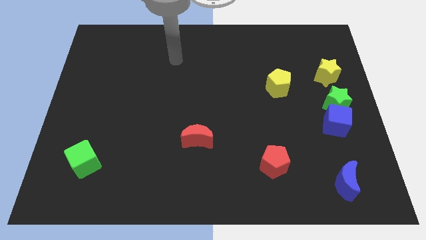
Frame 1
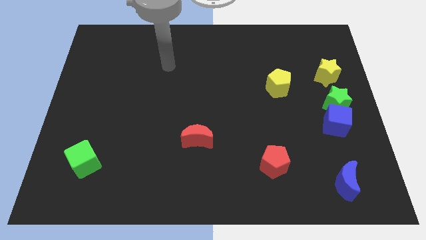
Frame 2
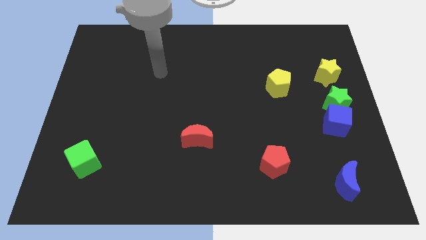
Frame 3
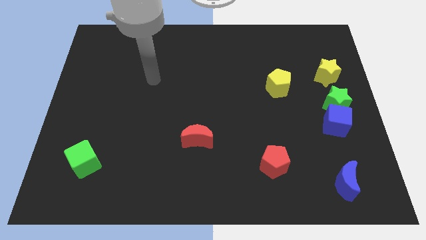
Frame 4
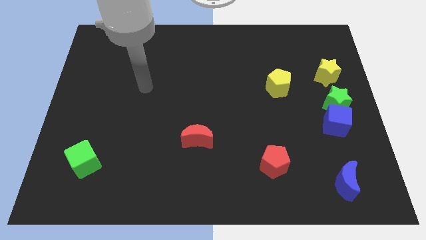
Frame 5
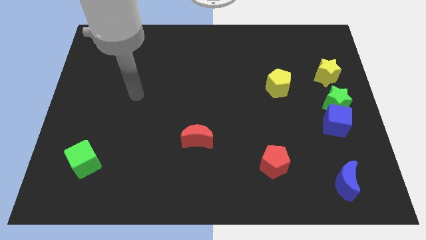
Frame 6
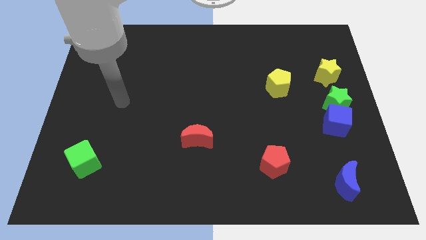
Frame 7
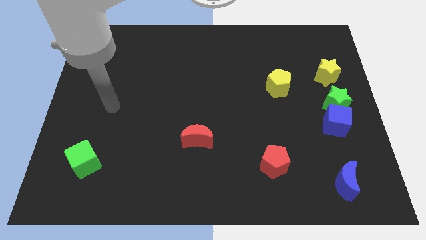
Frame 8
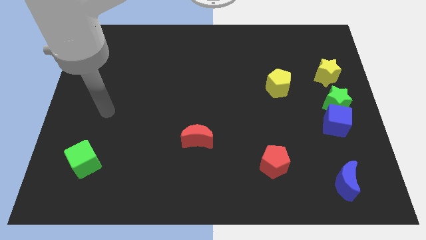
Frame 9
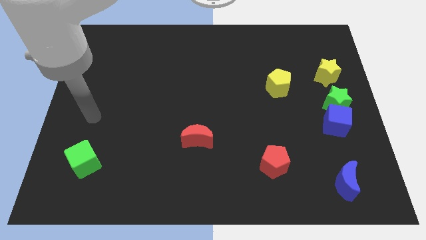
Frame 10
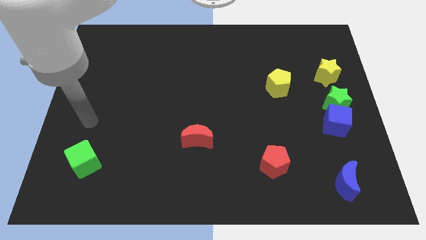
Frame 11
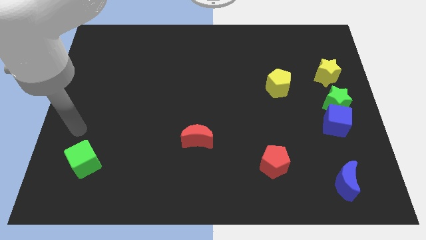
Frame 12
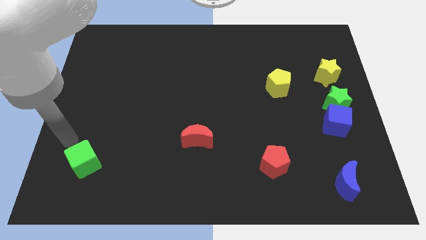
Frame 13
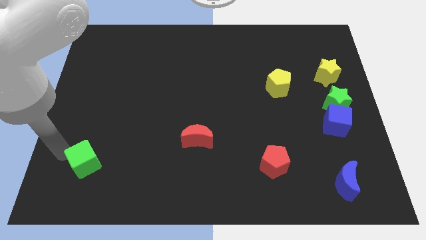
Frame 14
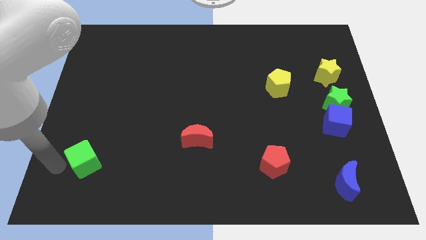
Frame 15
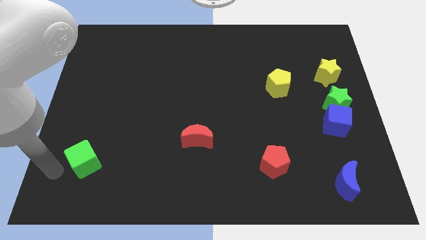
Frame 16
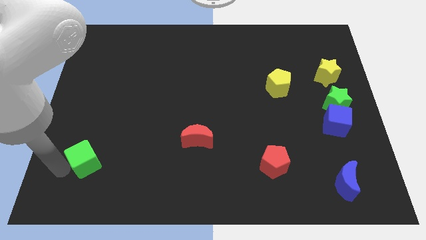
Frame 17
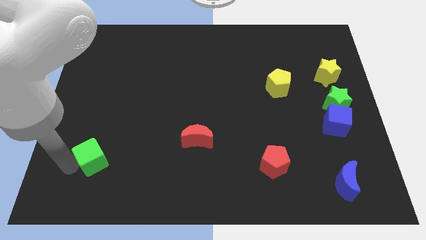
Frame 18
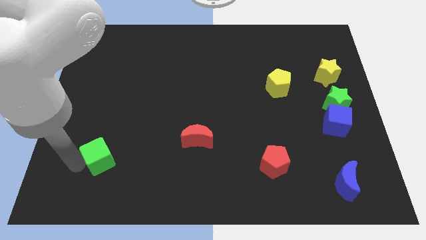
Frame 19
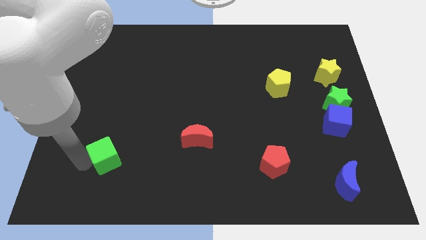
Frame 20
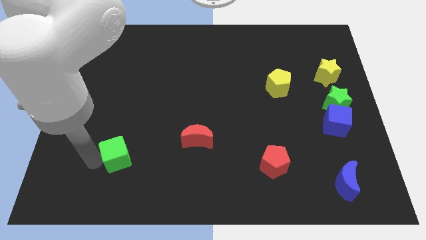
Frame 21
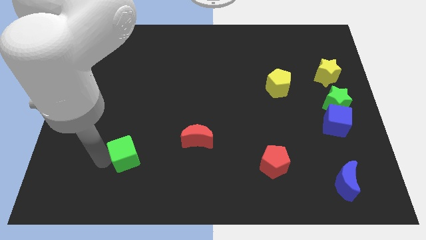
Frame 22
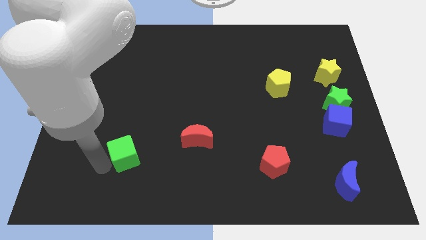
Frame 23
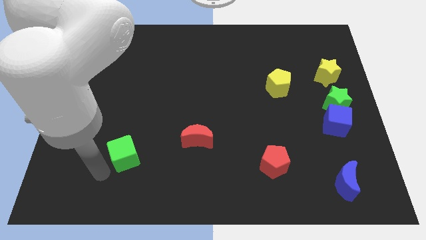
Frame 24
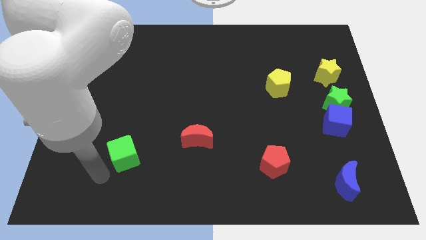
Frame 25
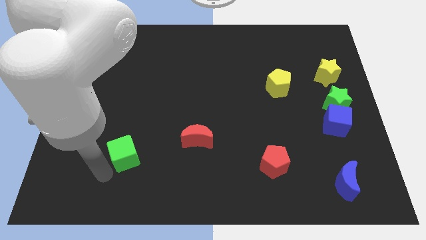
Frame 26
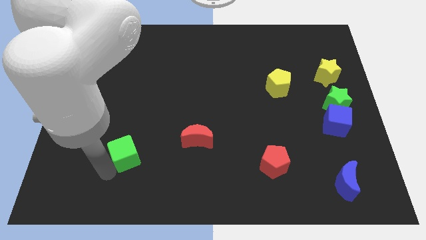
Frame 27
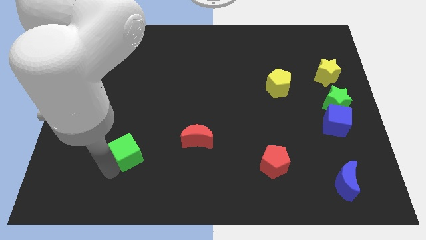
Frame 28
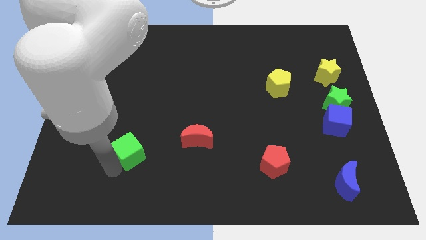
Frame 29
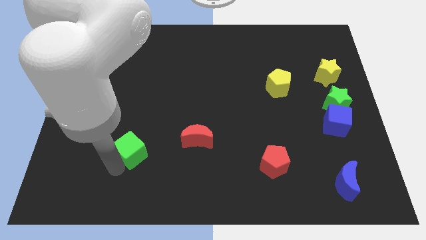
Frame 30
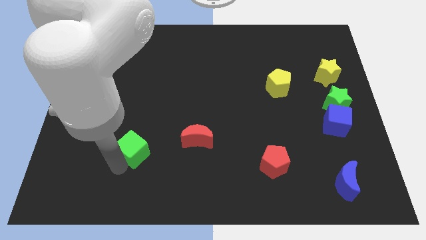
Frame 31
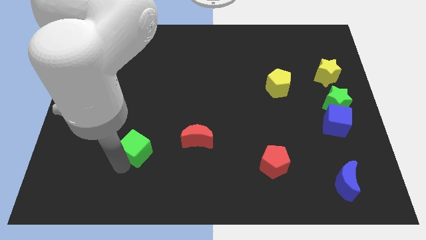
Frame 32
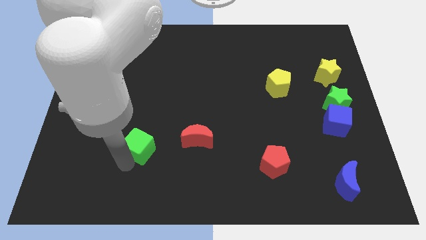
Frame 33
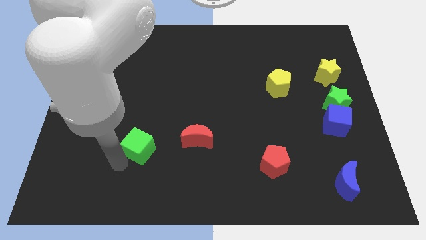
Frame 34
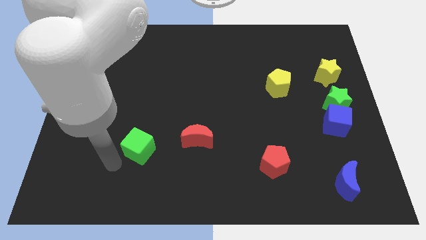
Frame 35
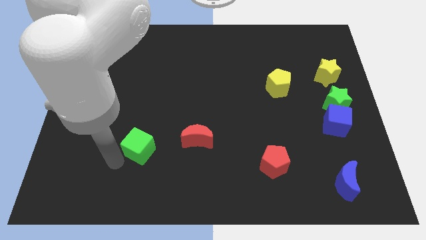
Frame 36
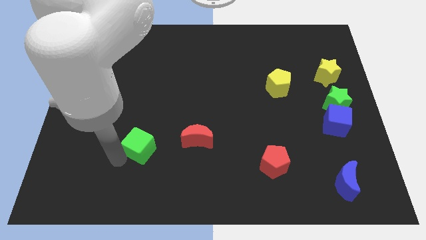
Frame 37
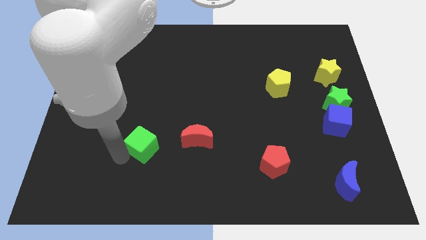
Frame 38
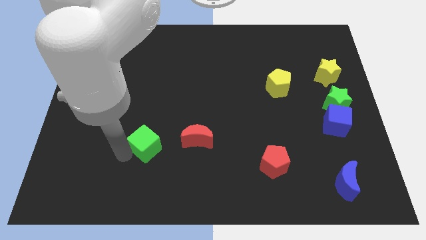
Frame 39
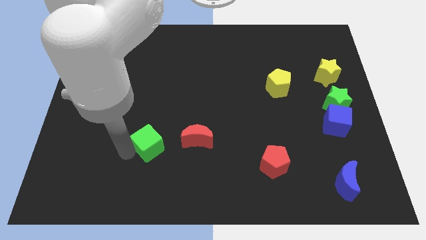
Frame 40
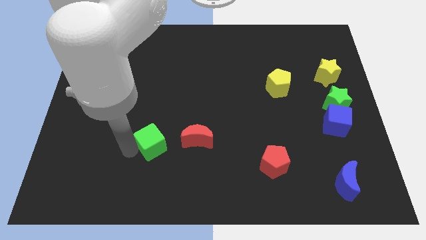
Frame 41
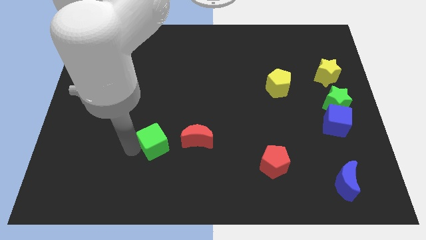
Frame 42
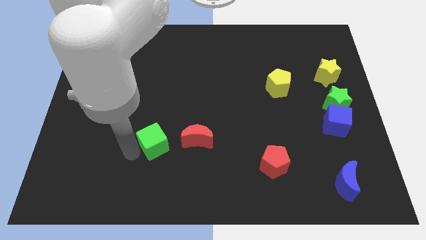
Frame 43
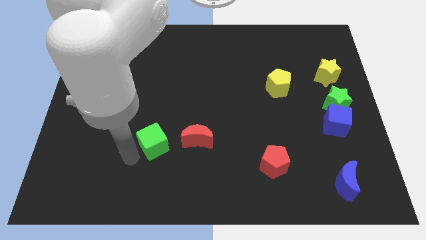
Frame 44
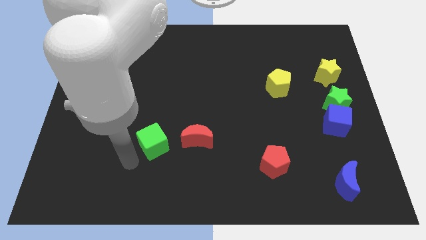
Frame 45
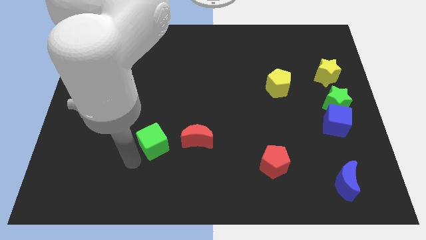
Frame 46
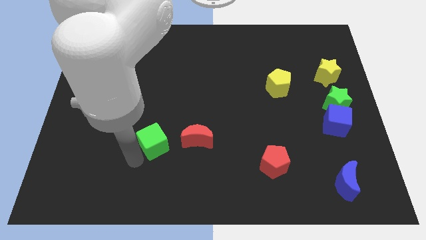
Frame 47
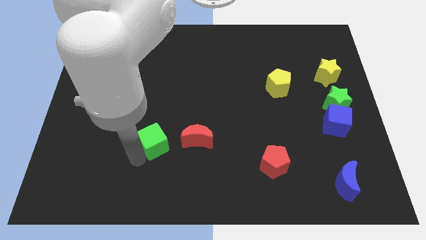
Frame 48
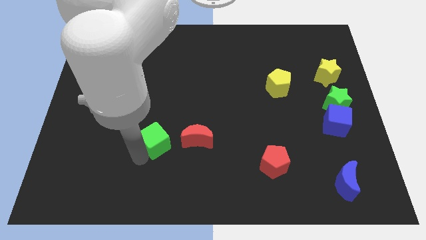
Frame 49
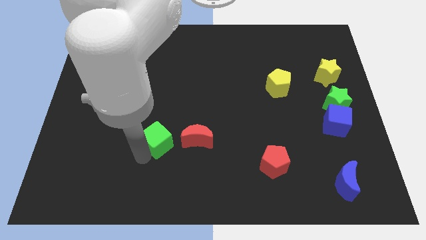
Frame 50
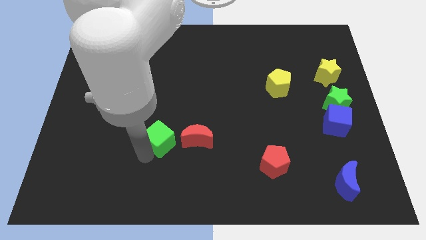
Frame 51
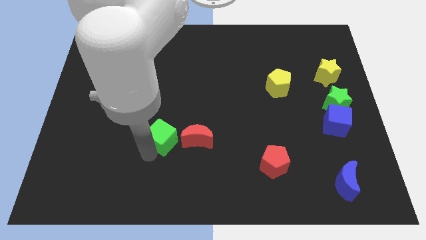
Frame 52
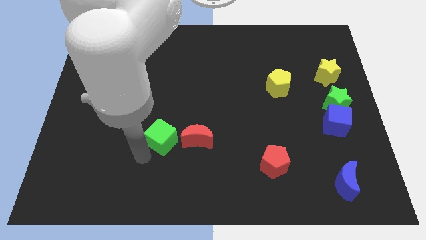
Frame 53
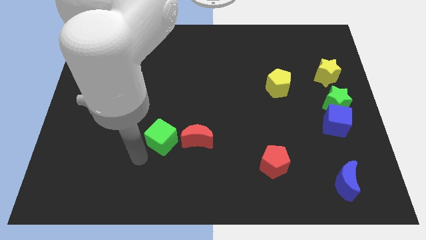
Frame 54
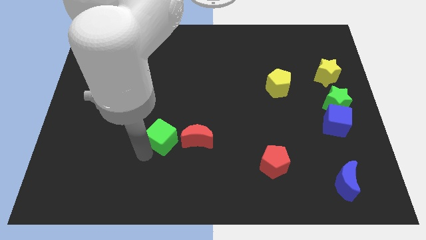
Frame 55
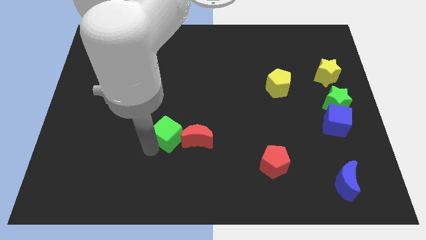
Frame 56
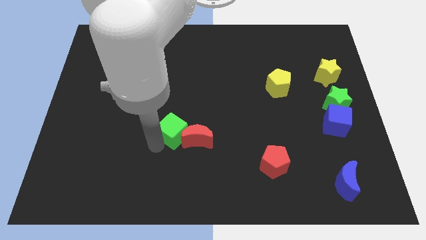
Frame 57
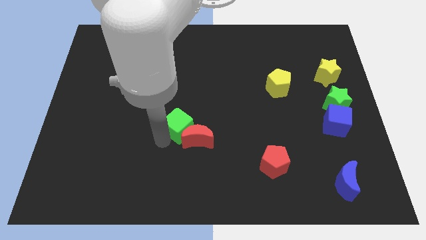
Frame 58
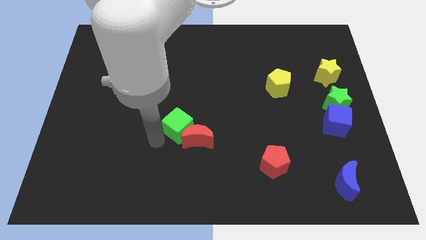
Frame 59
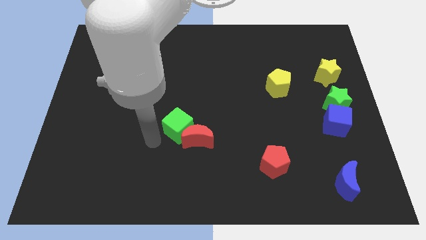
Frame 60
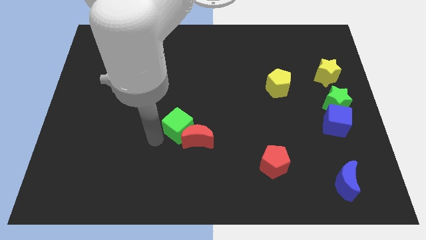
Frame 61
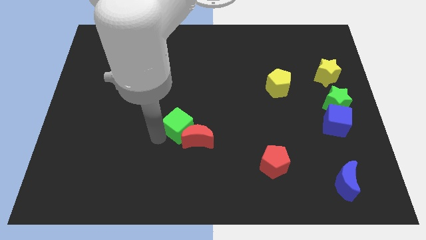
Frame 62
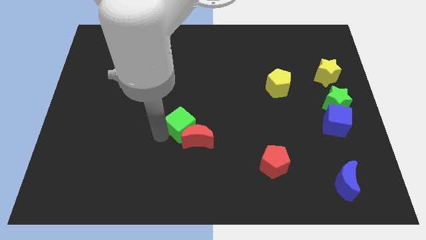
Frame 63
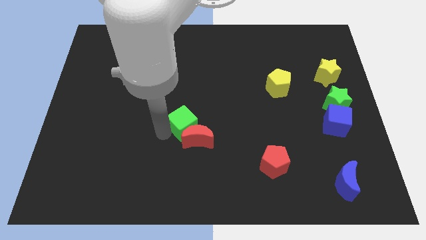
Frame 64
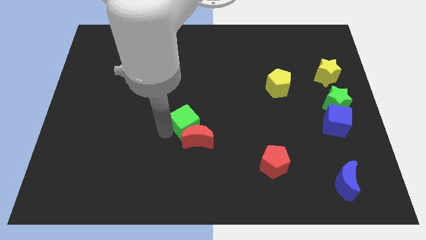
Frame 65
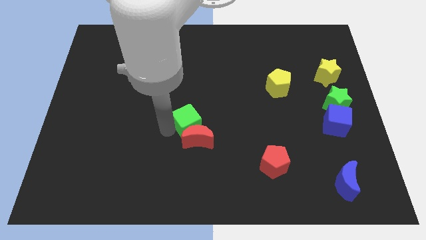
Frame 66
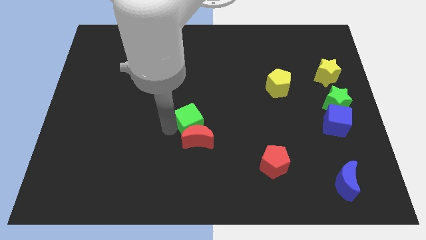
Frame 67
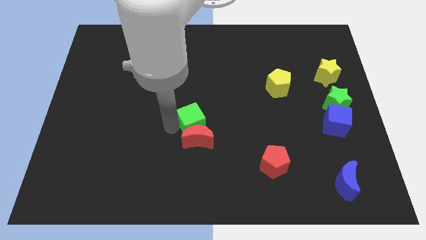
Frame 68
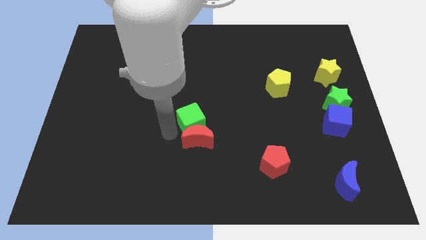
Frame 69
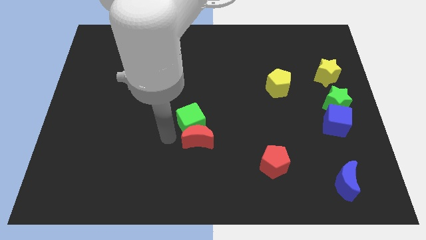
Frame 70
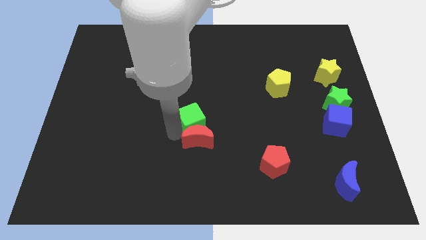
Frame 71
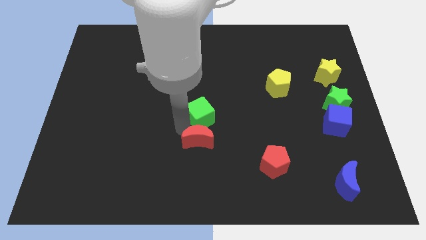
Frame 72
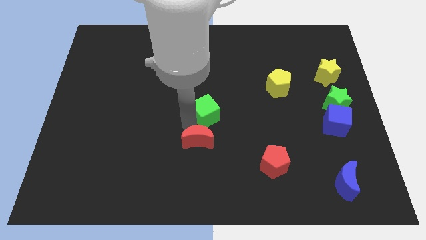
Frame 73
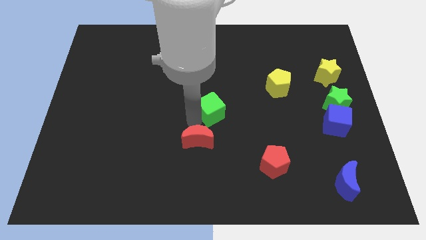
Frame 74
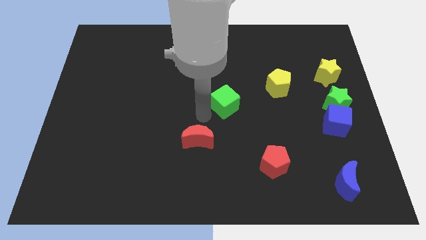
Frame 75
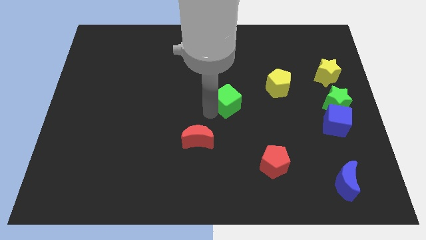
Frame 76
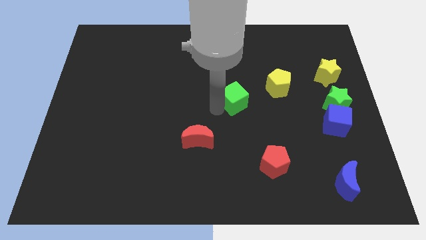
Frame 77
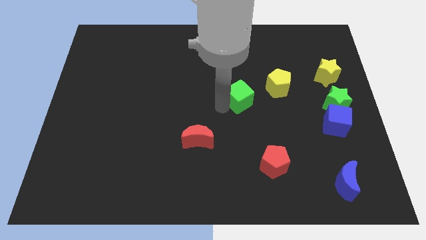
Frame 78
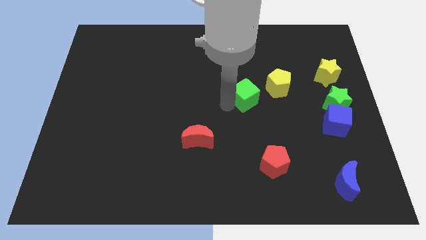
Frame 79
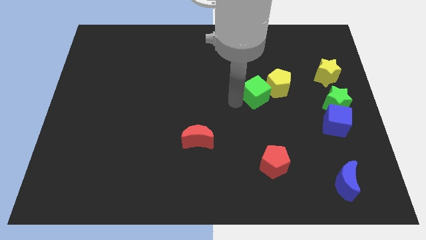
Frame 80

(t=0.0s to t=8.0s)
put the green cube close to the yellow pentagon
